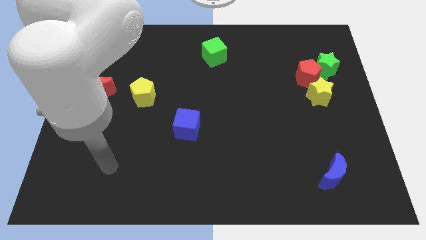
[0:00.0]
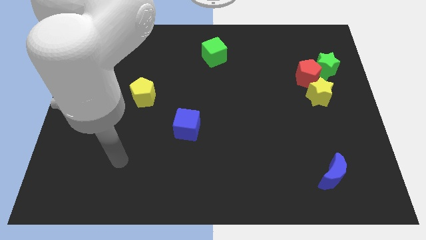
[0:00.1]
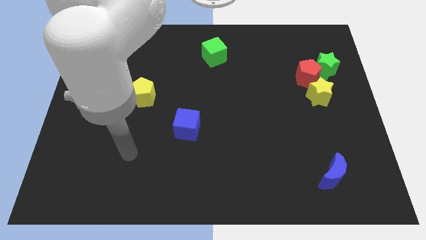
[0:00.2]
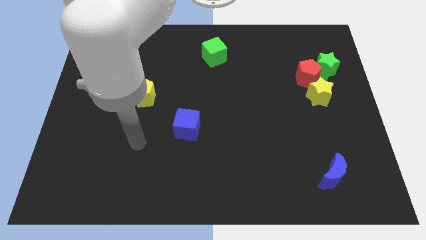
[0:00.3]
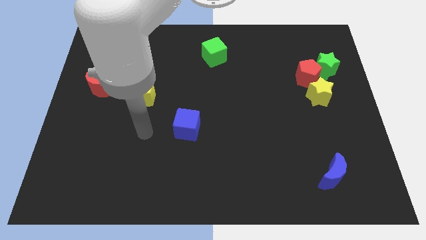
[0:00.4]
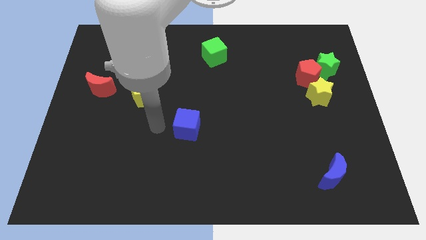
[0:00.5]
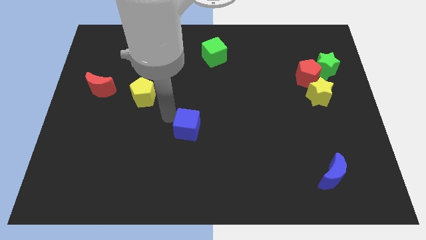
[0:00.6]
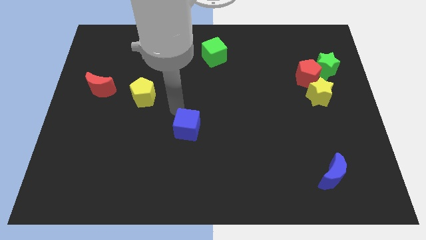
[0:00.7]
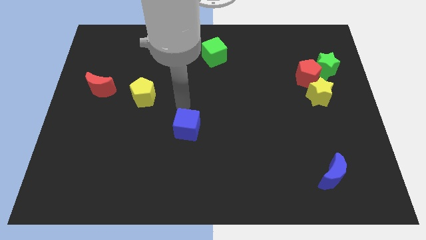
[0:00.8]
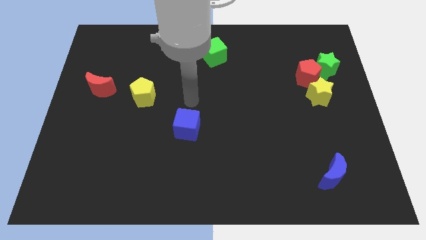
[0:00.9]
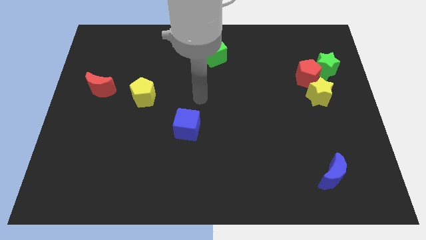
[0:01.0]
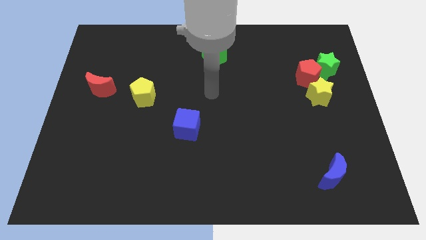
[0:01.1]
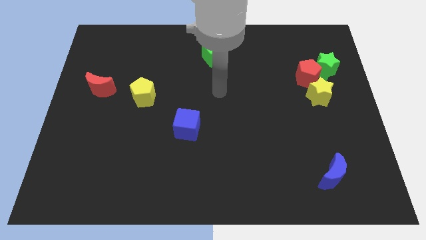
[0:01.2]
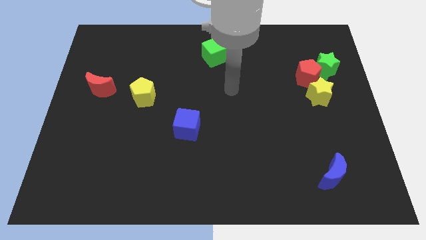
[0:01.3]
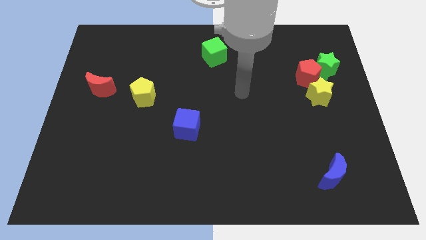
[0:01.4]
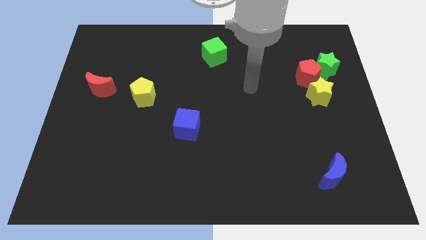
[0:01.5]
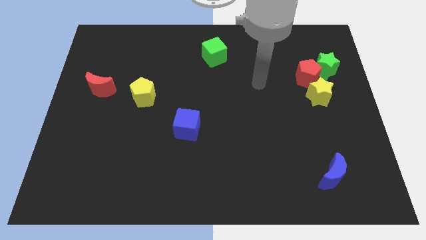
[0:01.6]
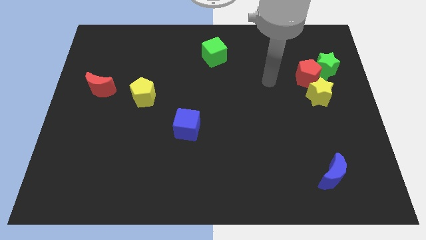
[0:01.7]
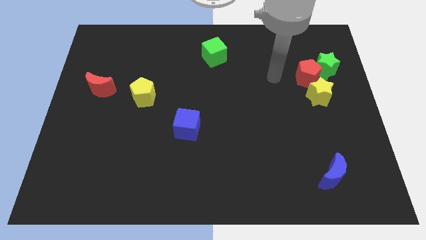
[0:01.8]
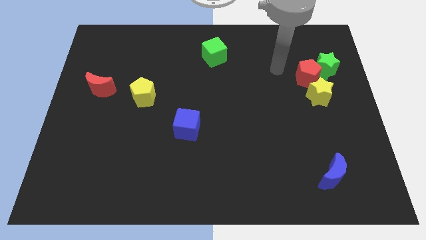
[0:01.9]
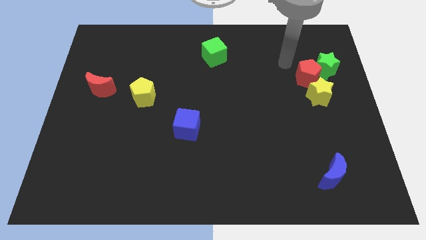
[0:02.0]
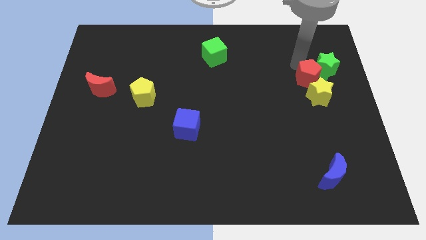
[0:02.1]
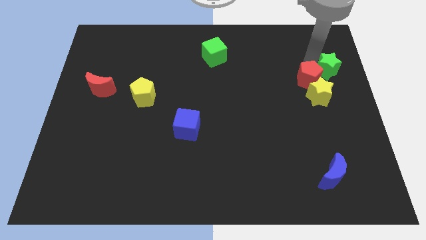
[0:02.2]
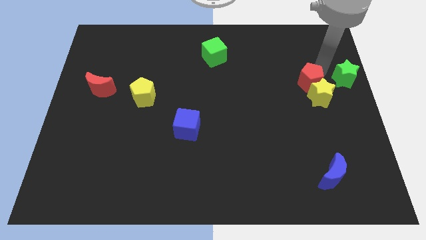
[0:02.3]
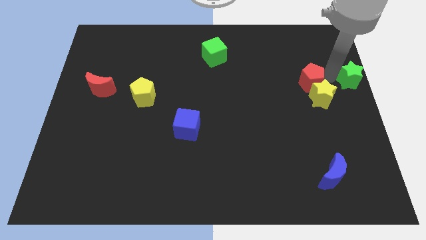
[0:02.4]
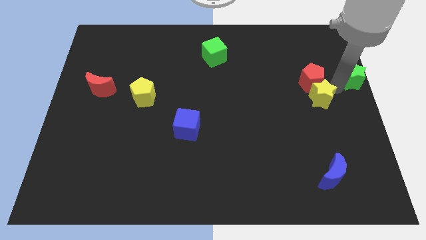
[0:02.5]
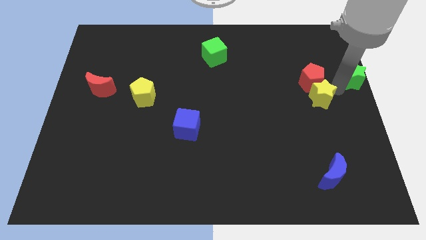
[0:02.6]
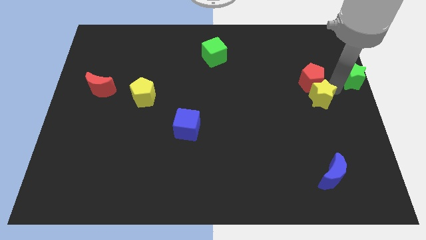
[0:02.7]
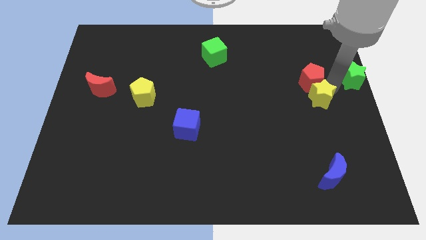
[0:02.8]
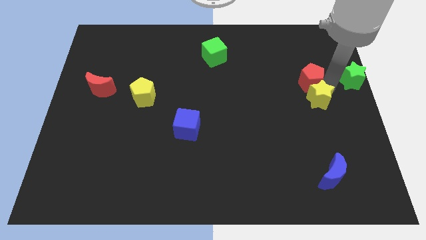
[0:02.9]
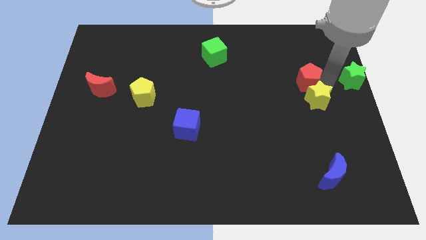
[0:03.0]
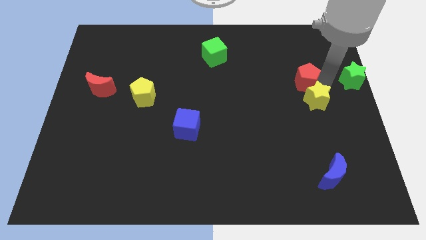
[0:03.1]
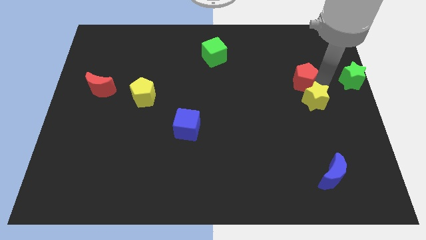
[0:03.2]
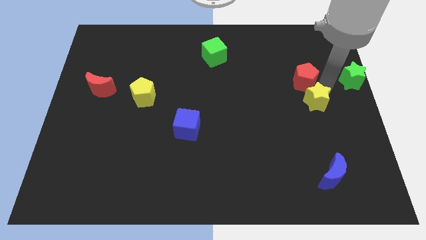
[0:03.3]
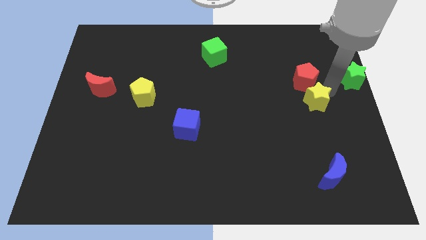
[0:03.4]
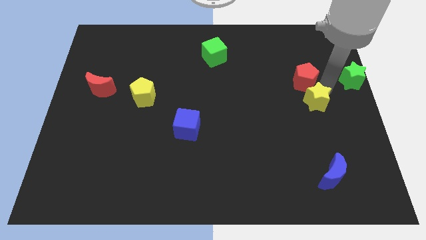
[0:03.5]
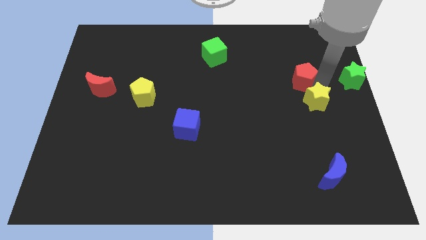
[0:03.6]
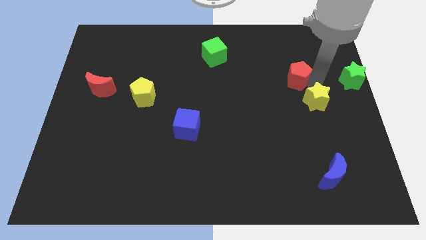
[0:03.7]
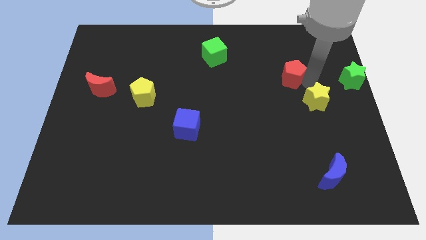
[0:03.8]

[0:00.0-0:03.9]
separate the red pentagon from the green star and yellow star

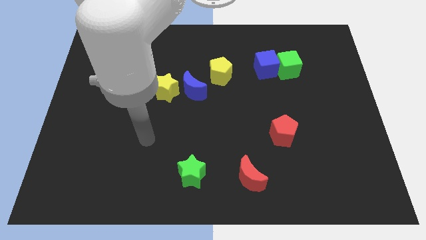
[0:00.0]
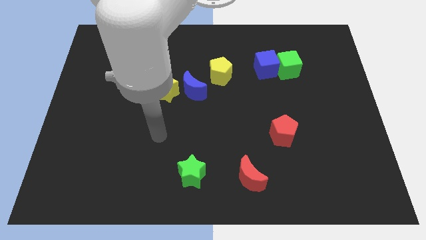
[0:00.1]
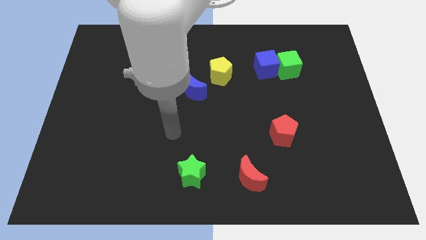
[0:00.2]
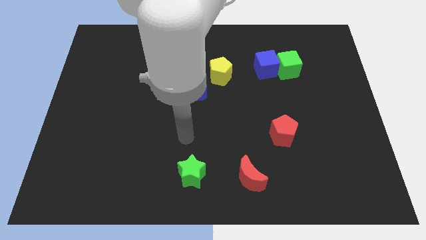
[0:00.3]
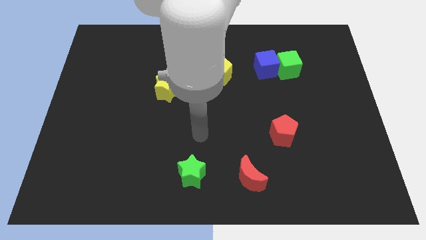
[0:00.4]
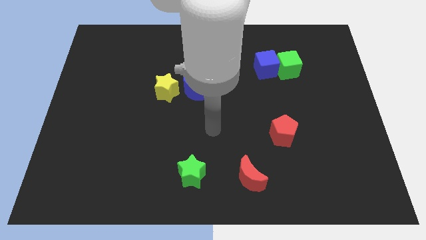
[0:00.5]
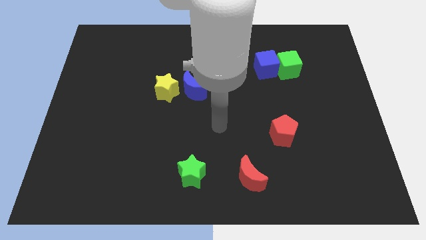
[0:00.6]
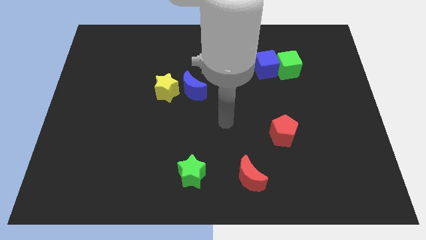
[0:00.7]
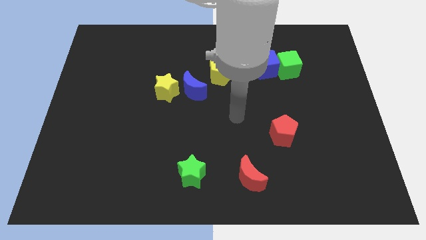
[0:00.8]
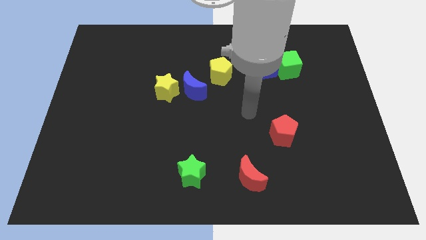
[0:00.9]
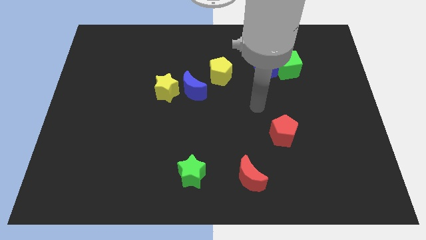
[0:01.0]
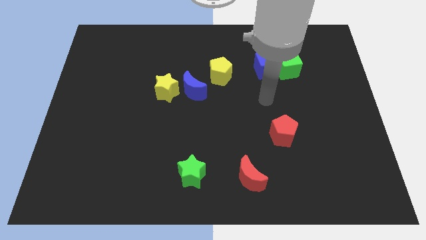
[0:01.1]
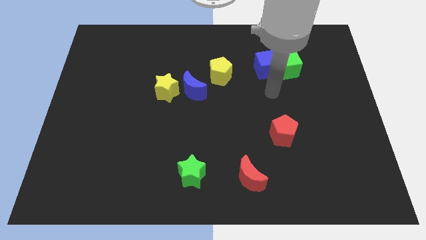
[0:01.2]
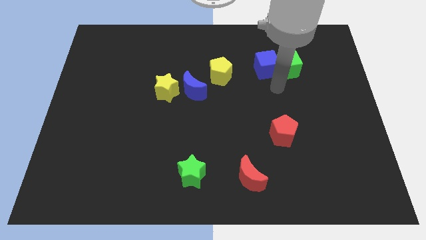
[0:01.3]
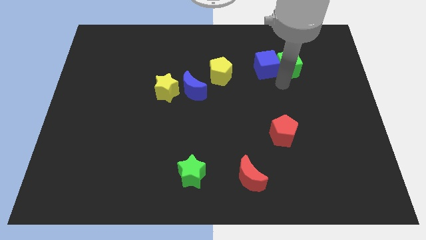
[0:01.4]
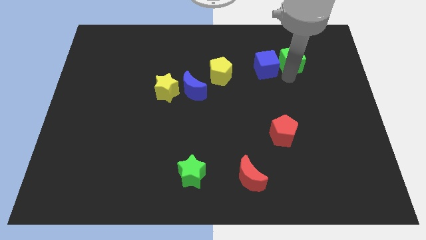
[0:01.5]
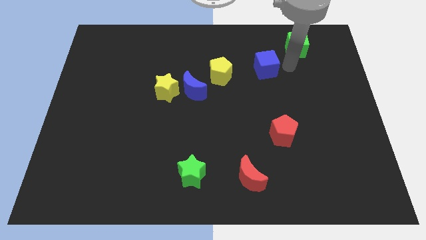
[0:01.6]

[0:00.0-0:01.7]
pull the blue cube apart from the green cube

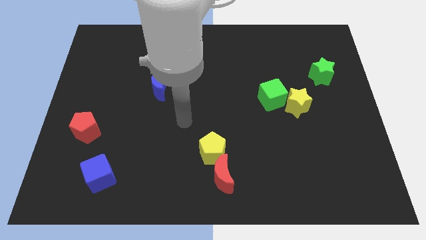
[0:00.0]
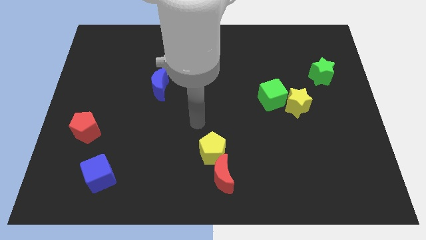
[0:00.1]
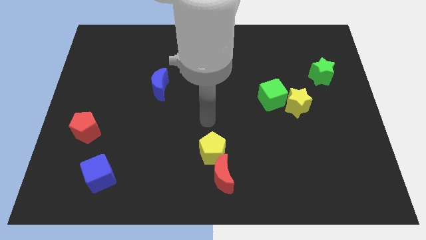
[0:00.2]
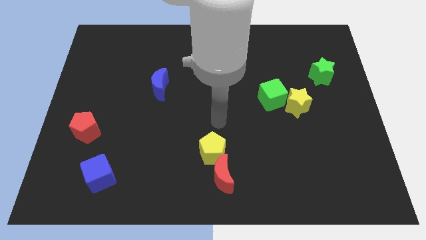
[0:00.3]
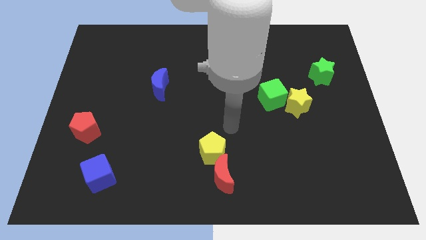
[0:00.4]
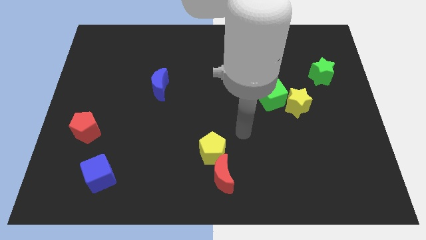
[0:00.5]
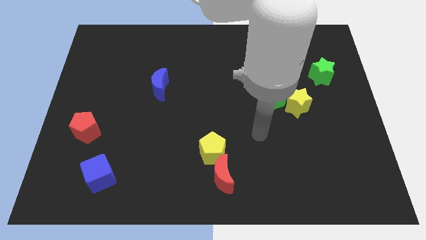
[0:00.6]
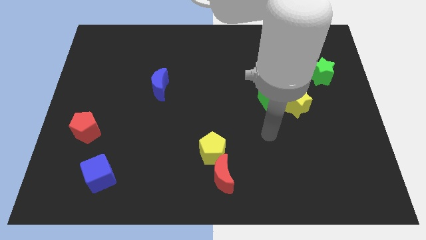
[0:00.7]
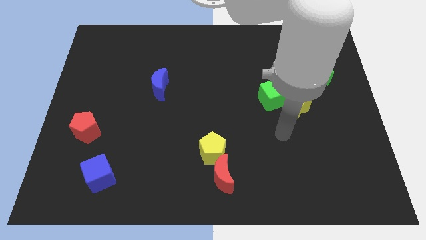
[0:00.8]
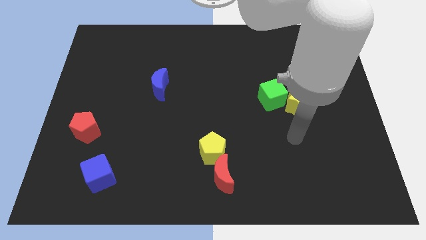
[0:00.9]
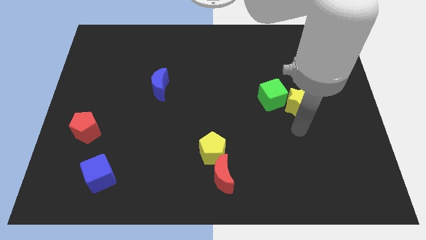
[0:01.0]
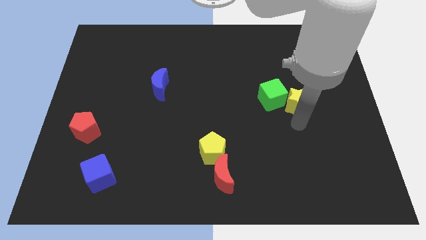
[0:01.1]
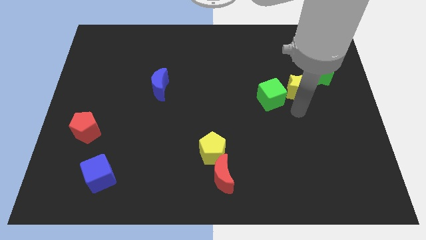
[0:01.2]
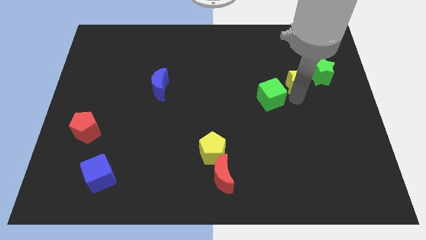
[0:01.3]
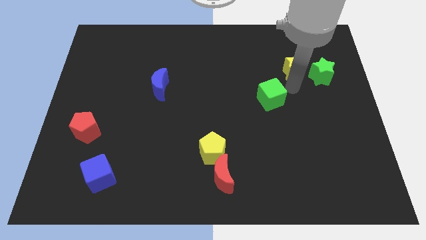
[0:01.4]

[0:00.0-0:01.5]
move the green cube away from the yellow star

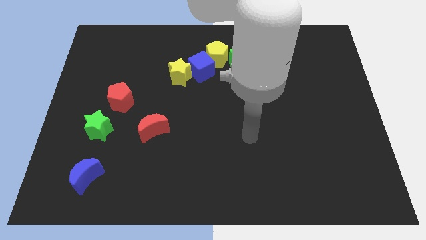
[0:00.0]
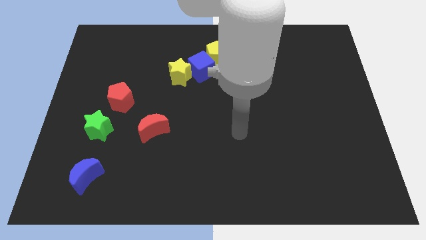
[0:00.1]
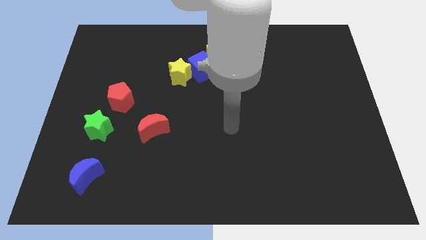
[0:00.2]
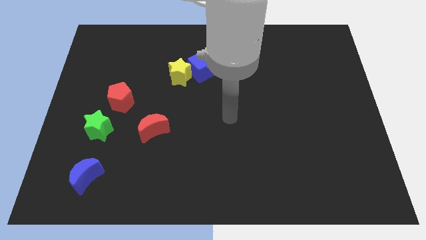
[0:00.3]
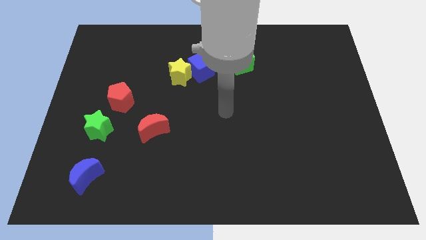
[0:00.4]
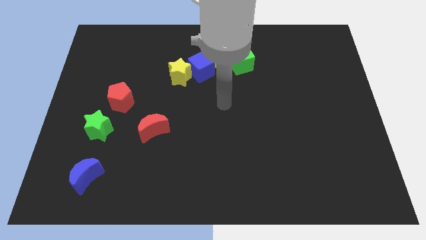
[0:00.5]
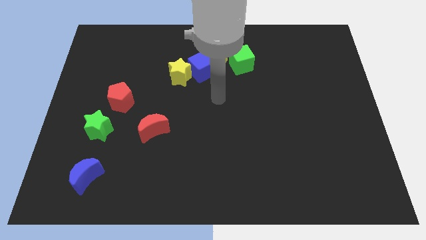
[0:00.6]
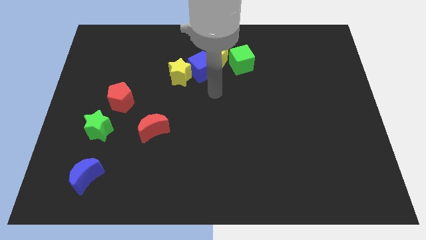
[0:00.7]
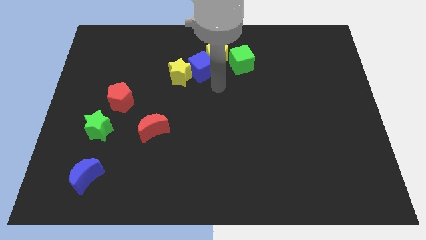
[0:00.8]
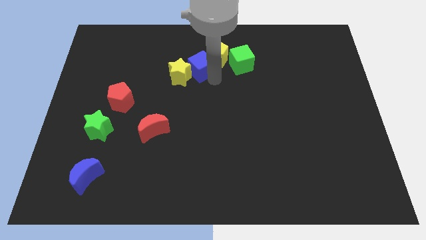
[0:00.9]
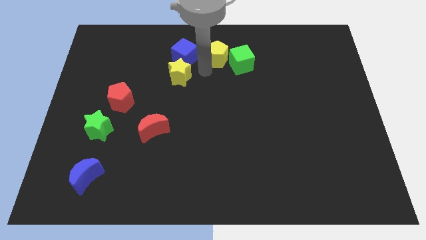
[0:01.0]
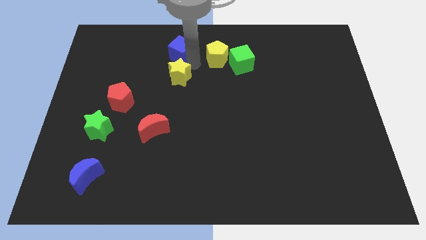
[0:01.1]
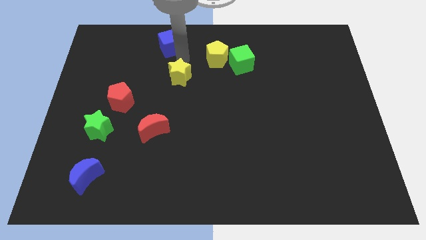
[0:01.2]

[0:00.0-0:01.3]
separate the yellow star from the blue cube

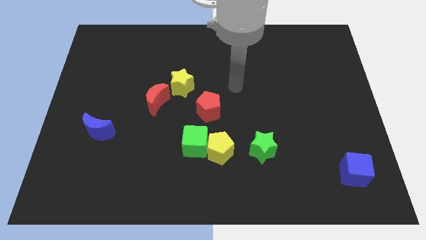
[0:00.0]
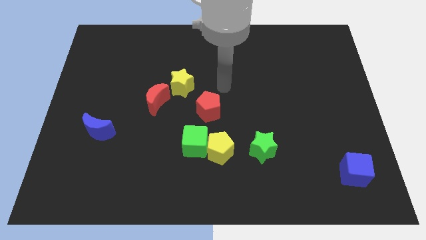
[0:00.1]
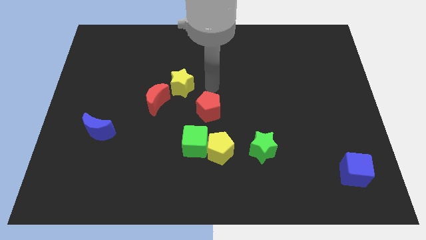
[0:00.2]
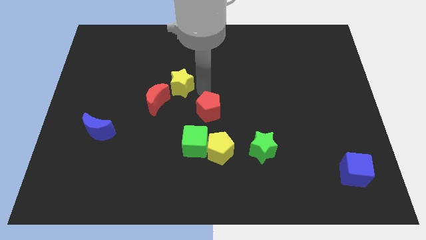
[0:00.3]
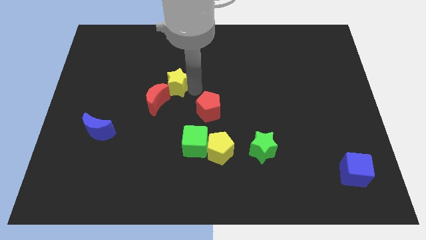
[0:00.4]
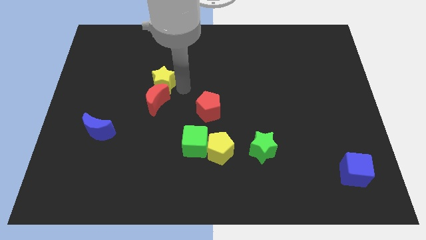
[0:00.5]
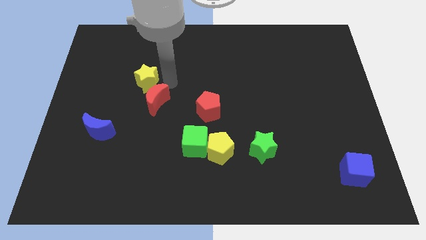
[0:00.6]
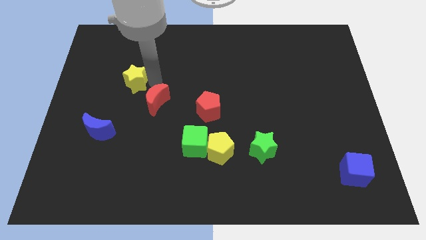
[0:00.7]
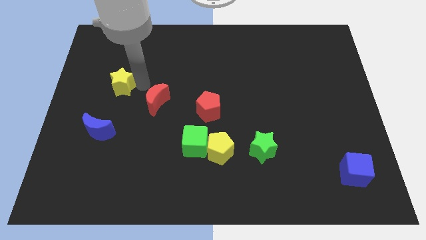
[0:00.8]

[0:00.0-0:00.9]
move the red moon away from the yellow star

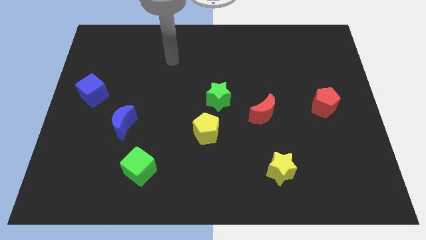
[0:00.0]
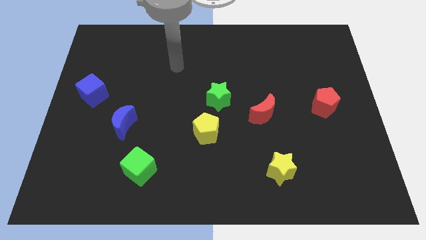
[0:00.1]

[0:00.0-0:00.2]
pull the green star apart from the yellow pentagon

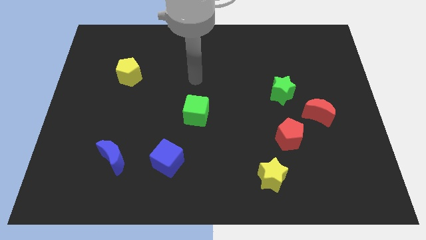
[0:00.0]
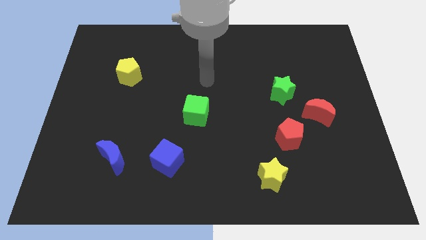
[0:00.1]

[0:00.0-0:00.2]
move the green star away from the red moon
